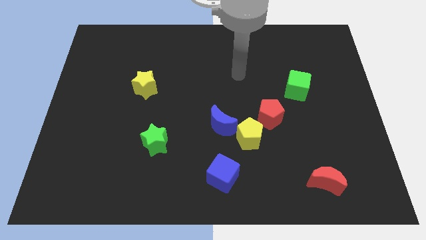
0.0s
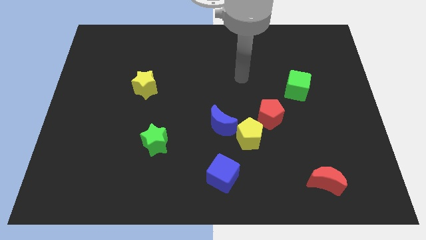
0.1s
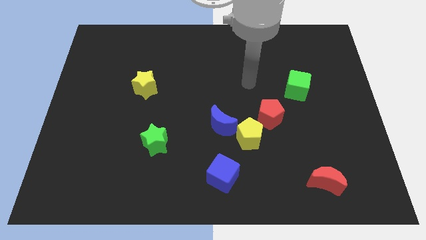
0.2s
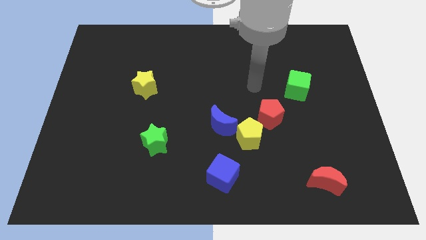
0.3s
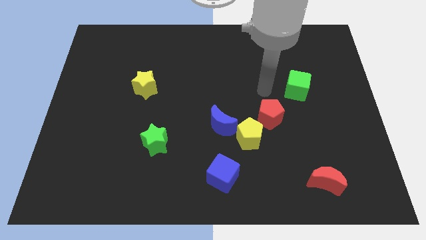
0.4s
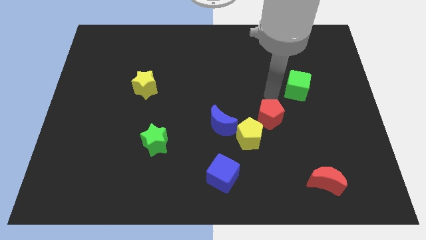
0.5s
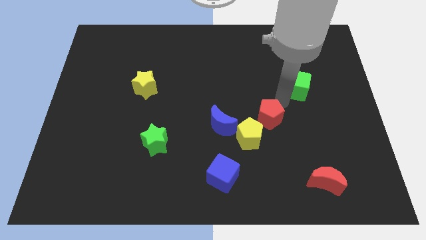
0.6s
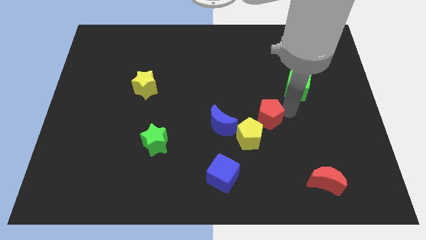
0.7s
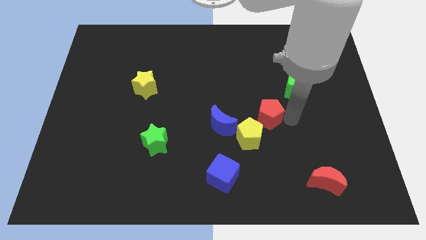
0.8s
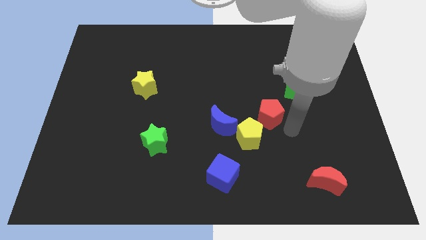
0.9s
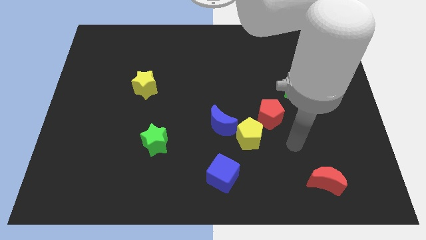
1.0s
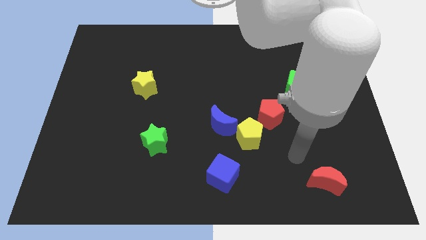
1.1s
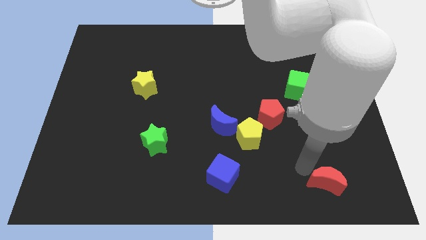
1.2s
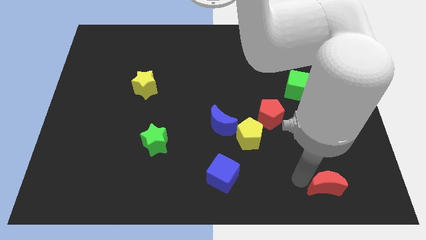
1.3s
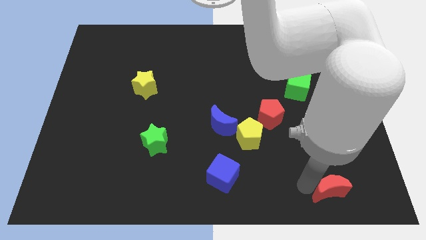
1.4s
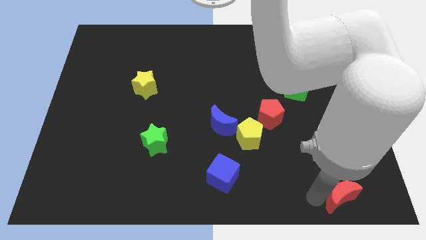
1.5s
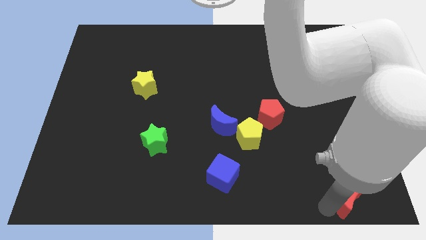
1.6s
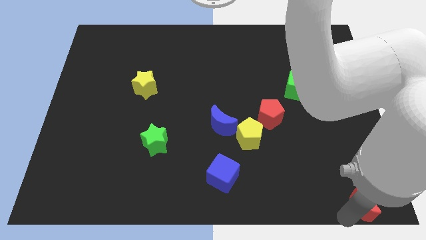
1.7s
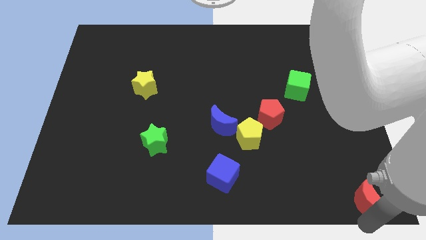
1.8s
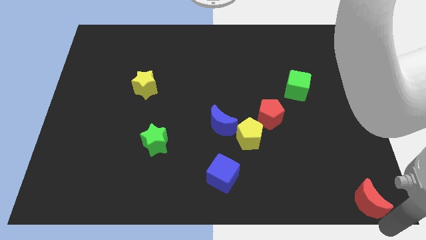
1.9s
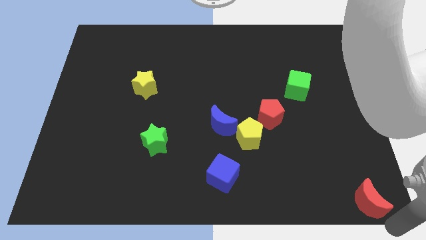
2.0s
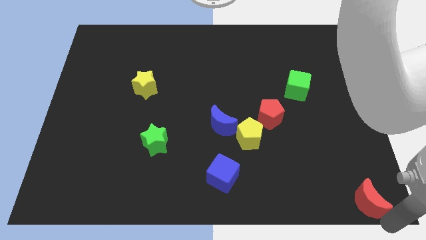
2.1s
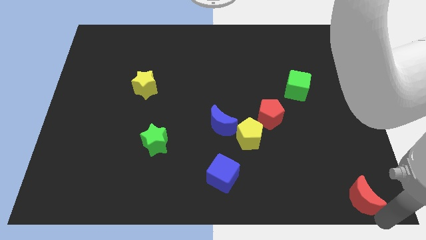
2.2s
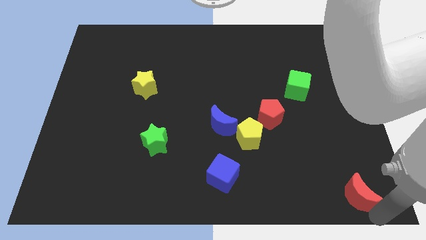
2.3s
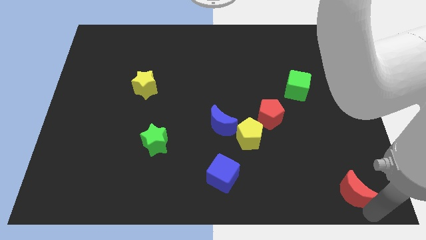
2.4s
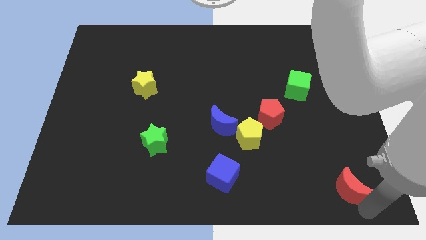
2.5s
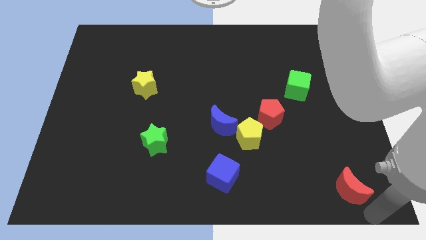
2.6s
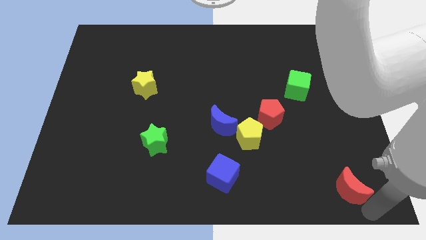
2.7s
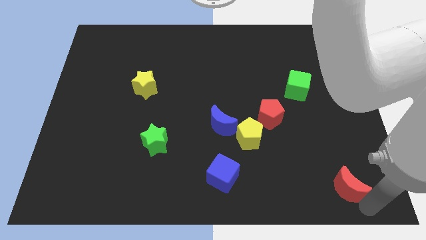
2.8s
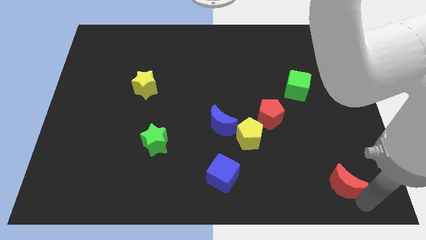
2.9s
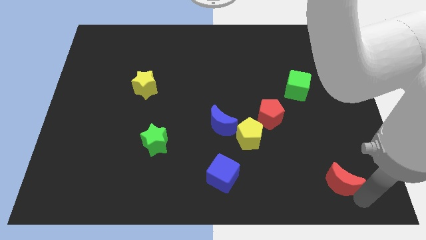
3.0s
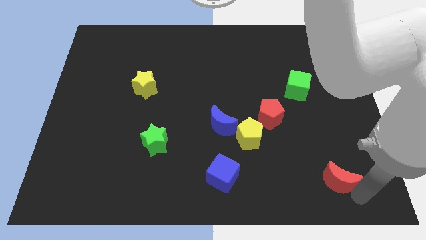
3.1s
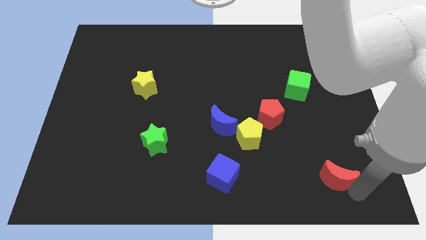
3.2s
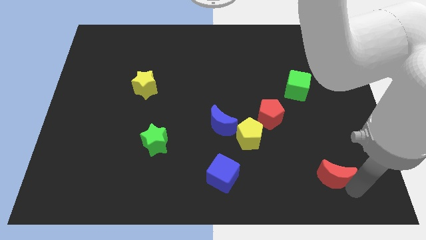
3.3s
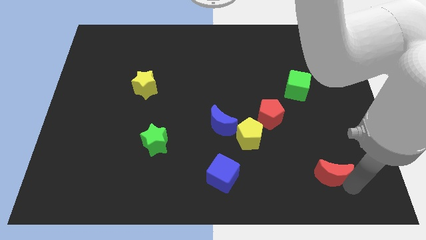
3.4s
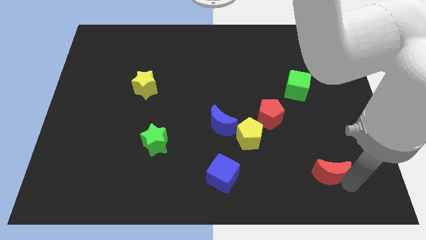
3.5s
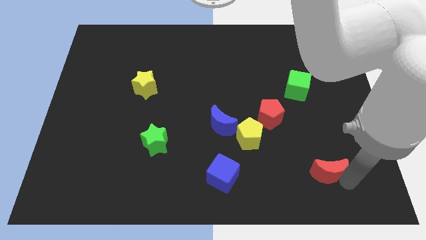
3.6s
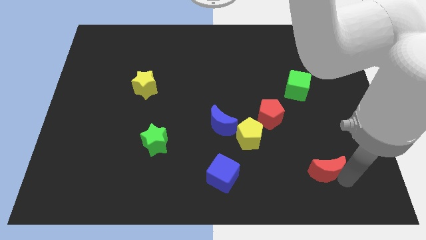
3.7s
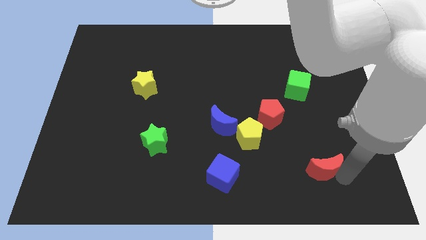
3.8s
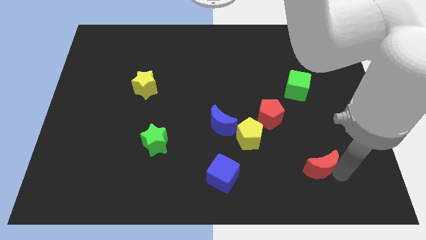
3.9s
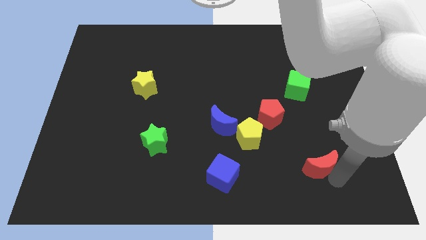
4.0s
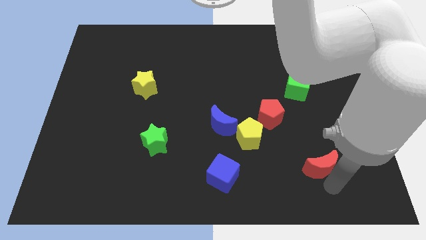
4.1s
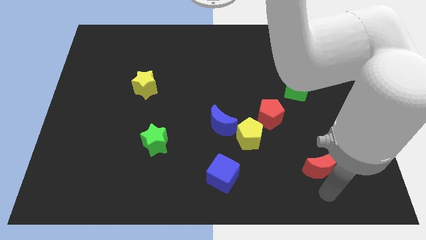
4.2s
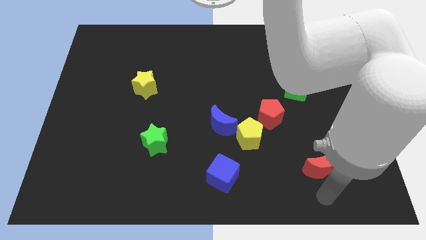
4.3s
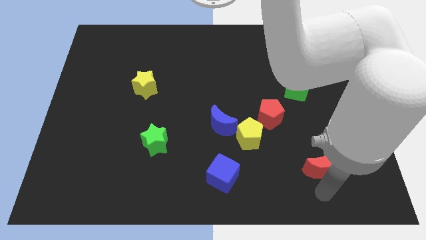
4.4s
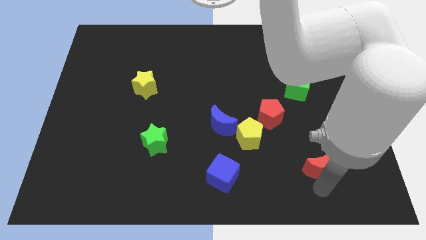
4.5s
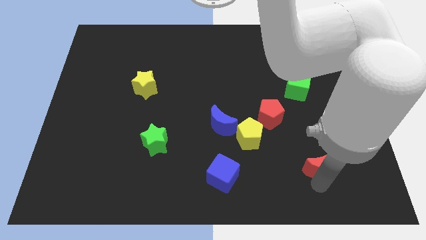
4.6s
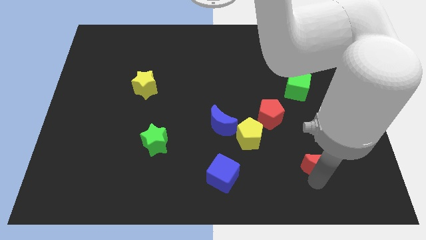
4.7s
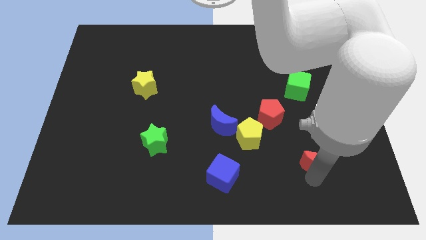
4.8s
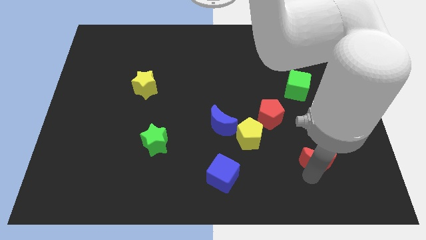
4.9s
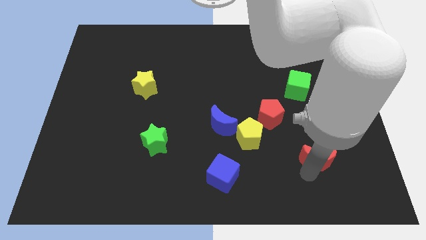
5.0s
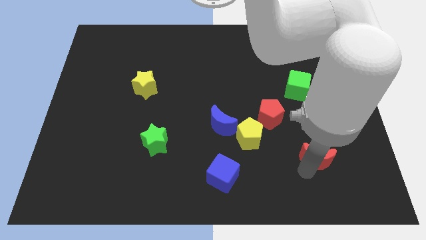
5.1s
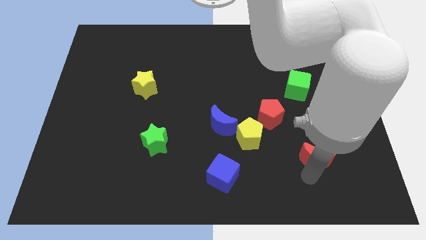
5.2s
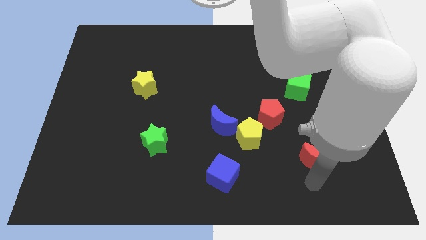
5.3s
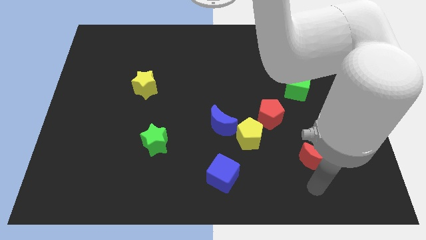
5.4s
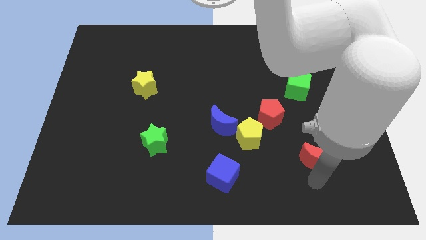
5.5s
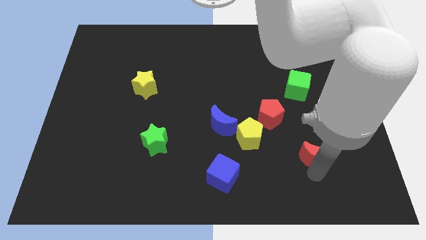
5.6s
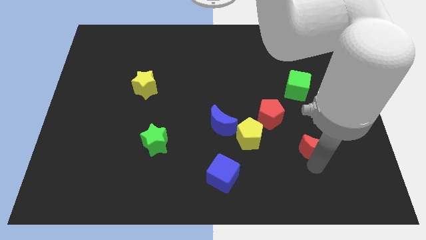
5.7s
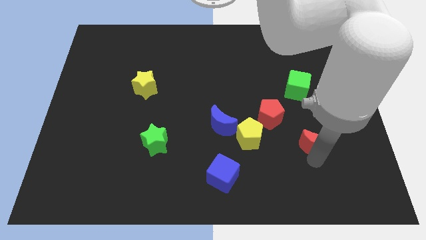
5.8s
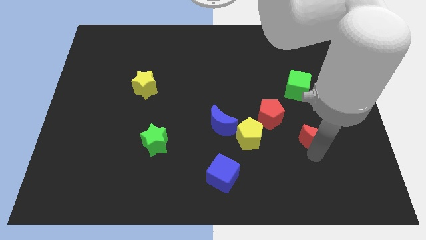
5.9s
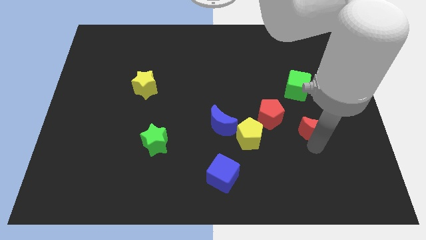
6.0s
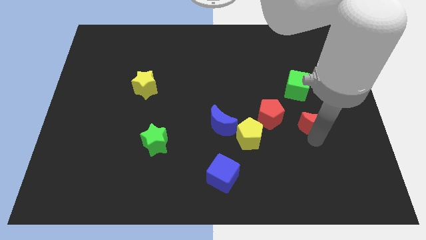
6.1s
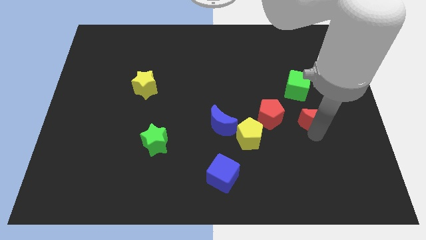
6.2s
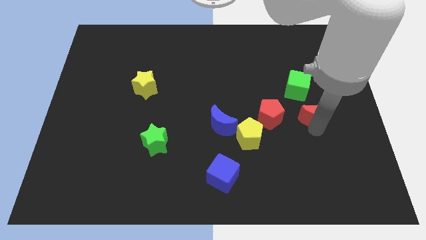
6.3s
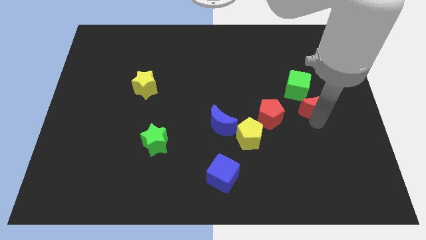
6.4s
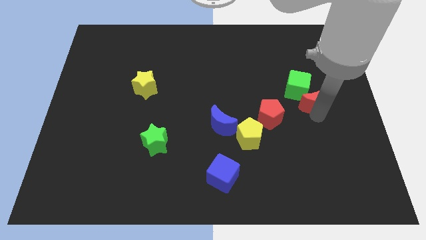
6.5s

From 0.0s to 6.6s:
put the red moon close to the green cube

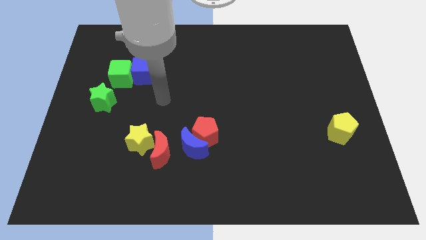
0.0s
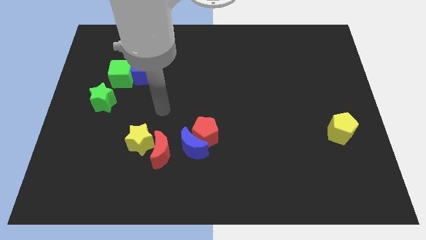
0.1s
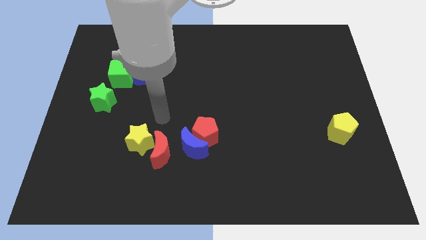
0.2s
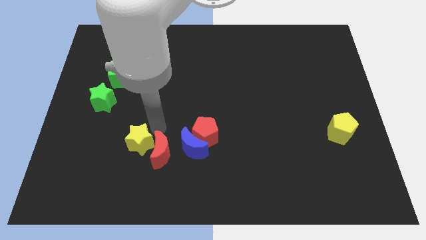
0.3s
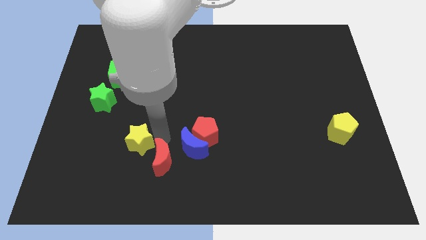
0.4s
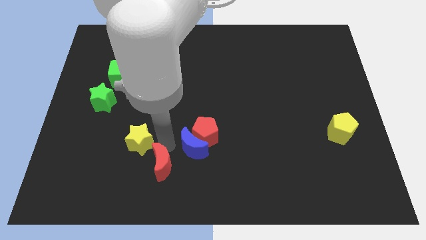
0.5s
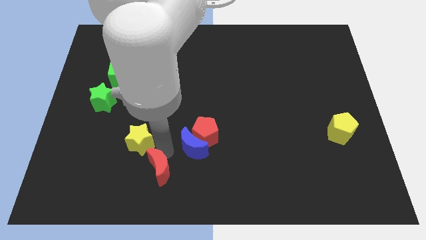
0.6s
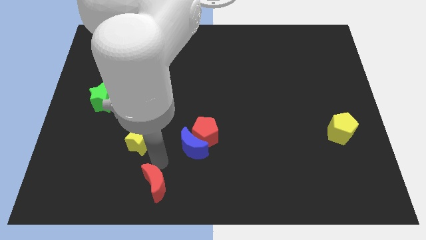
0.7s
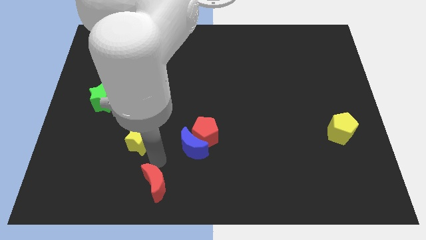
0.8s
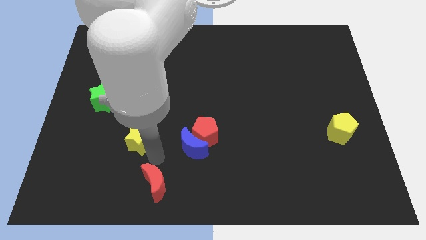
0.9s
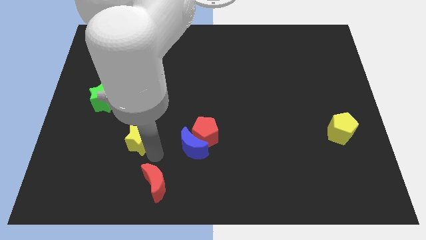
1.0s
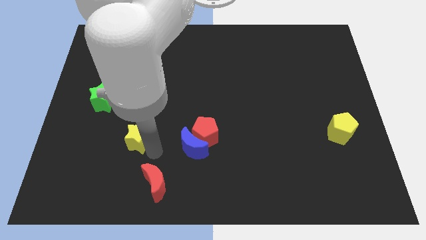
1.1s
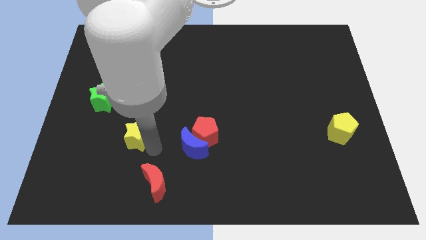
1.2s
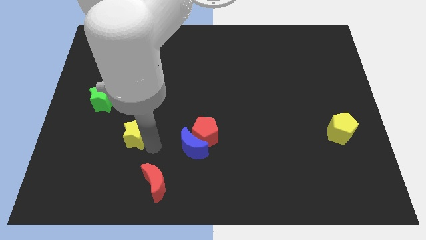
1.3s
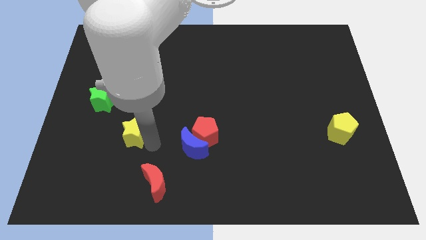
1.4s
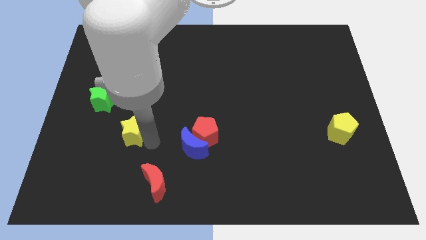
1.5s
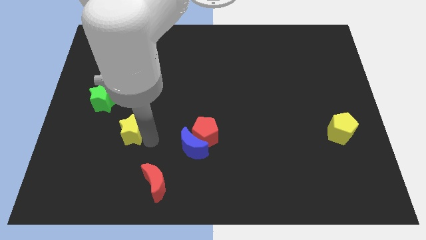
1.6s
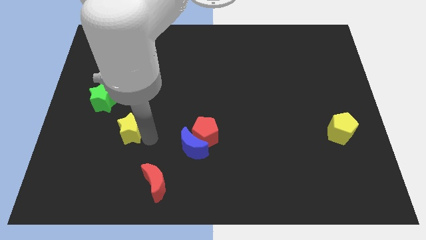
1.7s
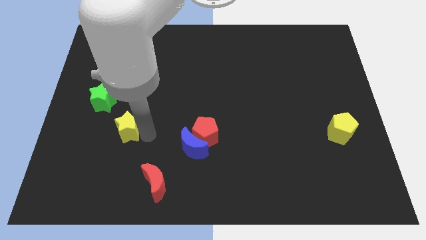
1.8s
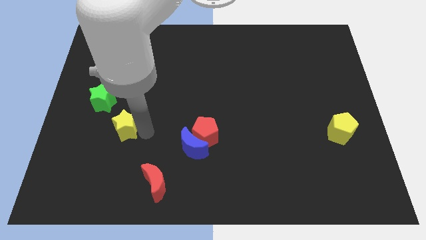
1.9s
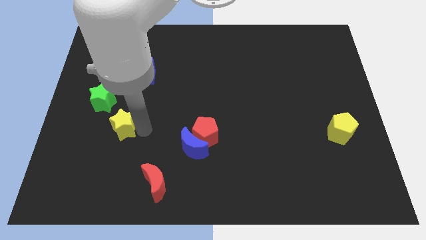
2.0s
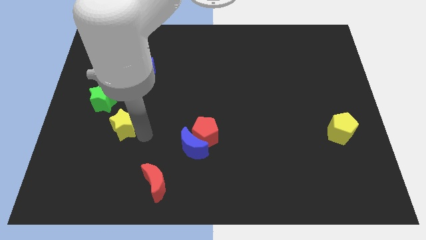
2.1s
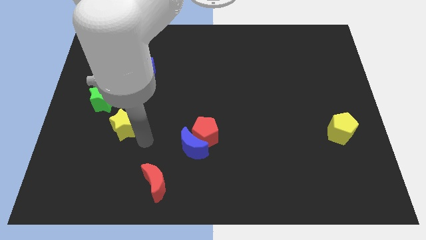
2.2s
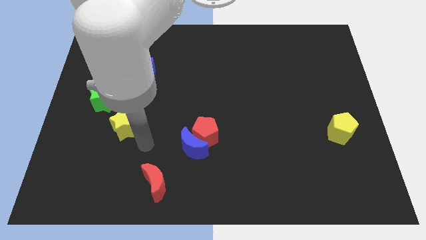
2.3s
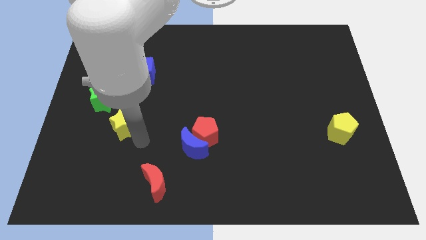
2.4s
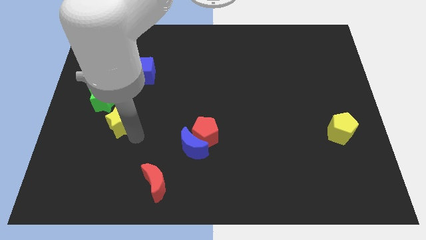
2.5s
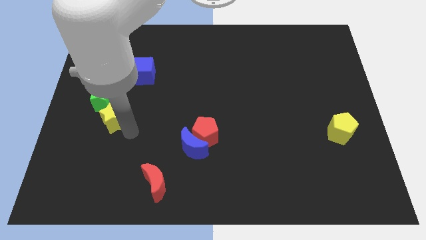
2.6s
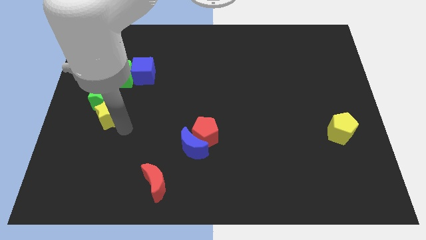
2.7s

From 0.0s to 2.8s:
move the yellow star towards the green star
